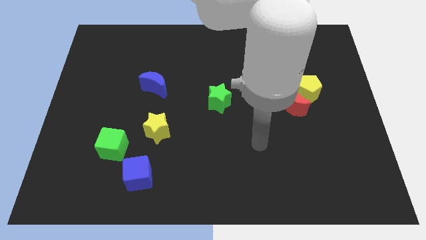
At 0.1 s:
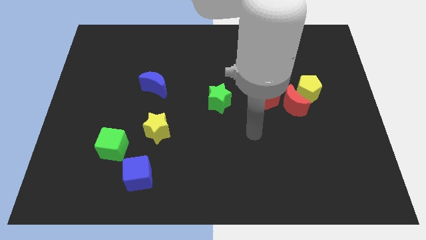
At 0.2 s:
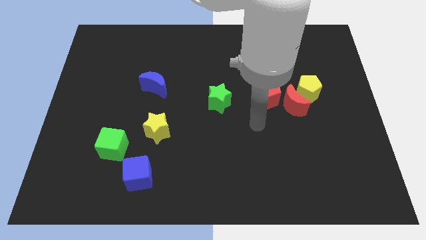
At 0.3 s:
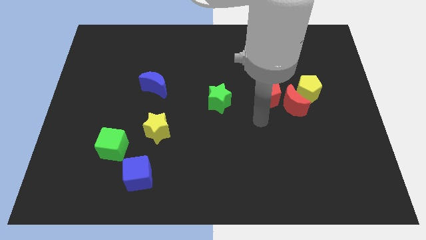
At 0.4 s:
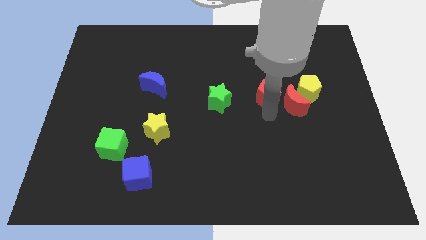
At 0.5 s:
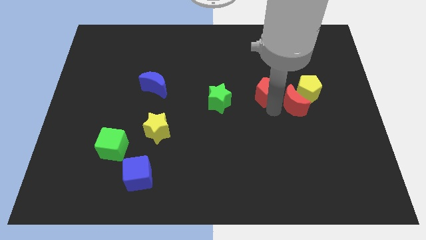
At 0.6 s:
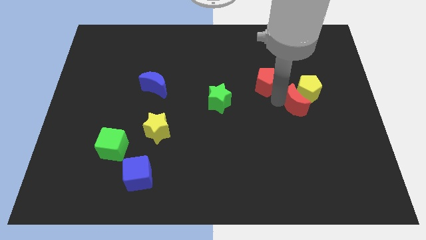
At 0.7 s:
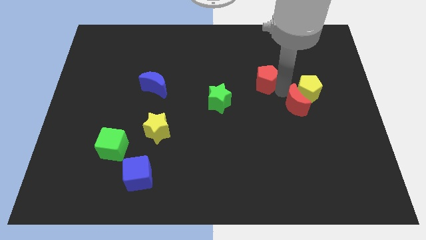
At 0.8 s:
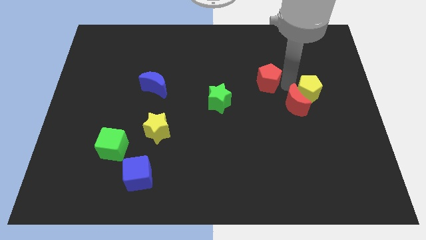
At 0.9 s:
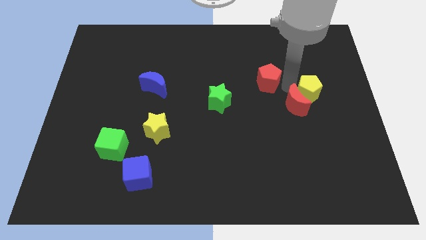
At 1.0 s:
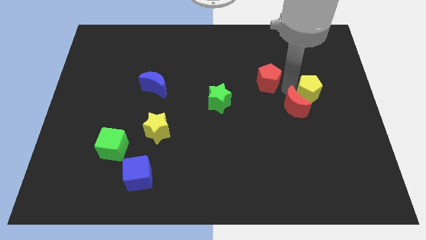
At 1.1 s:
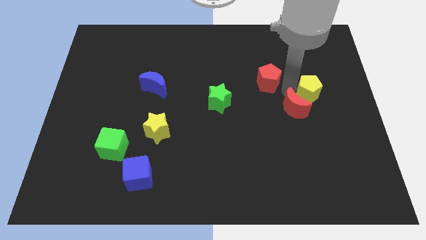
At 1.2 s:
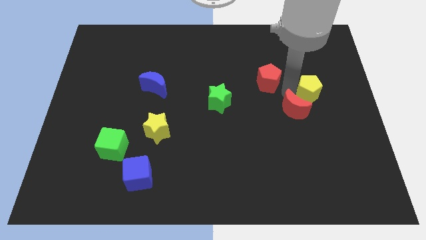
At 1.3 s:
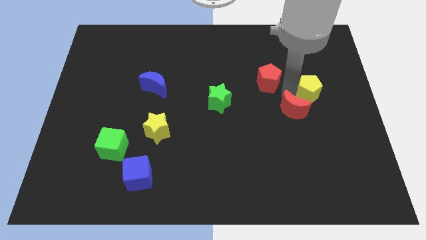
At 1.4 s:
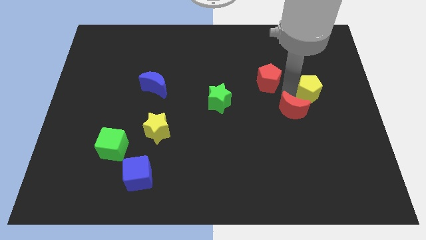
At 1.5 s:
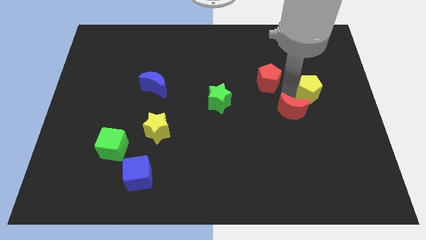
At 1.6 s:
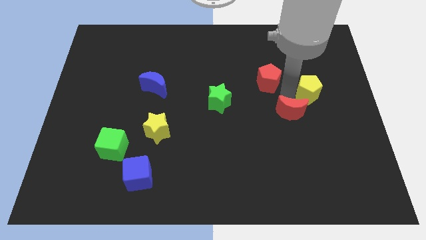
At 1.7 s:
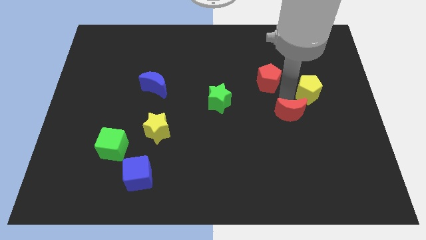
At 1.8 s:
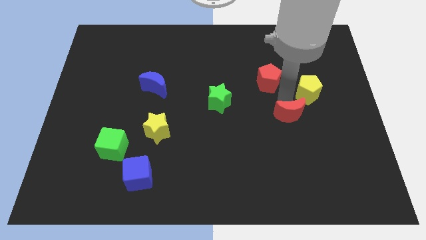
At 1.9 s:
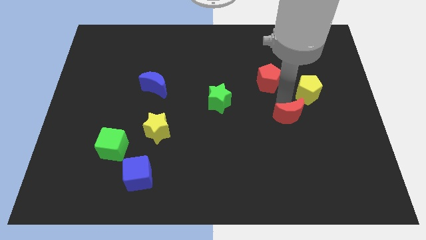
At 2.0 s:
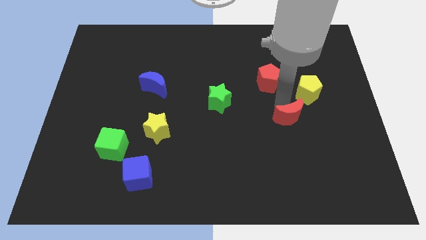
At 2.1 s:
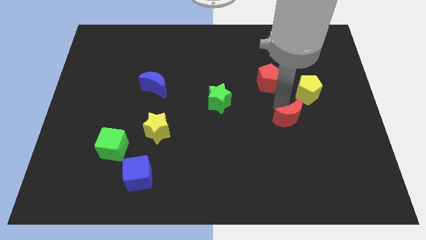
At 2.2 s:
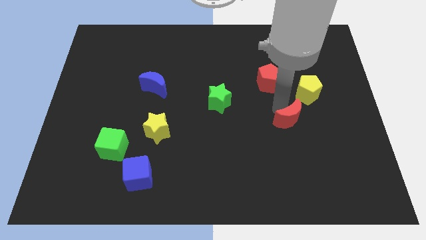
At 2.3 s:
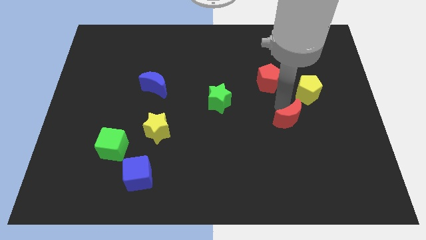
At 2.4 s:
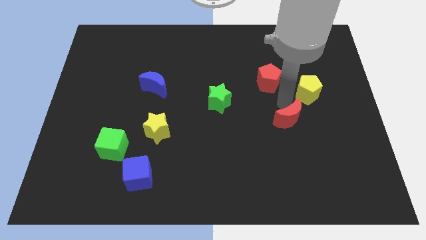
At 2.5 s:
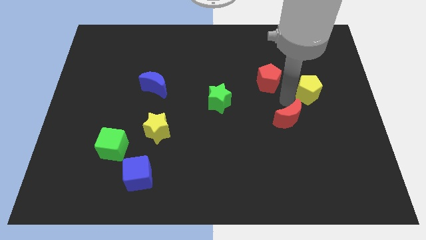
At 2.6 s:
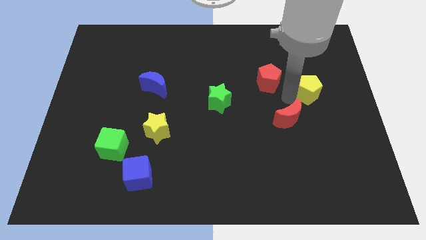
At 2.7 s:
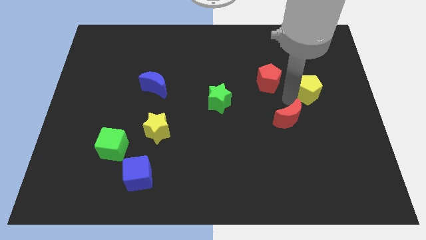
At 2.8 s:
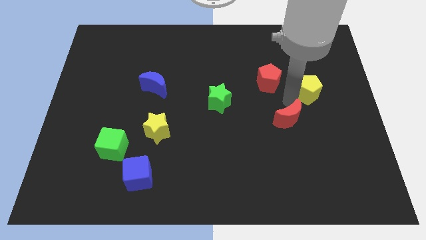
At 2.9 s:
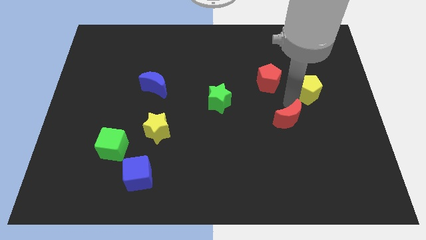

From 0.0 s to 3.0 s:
separate the red moon from the yellow pentagon and red pentagon

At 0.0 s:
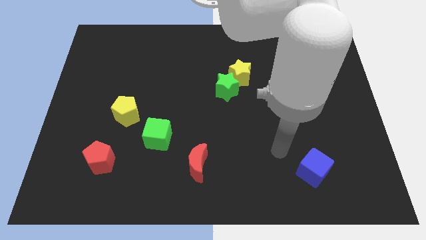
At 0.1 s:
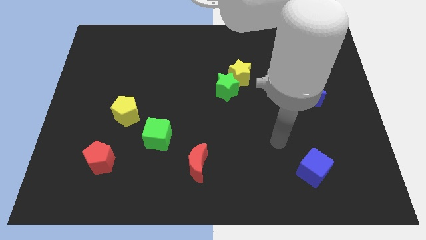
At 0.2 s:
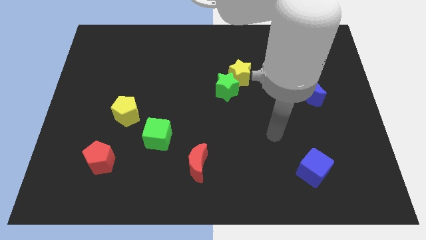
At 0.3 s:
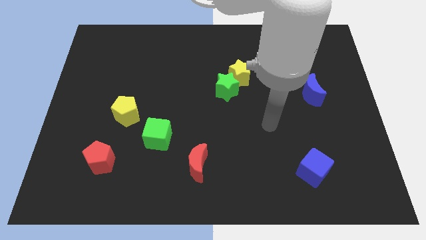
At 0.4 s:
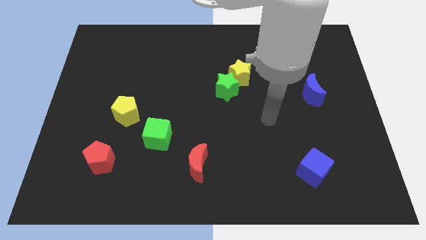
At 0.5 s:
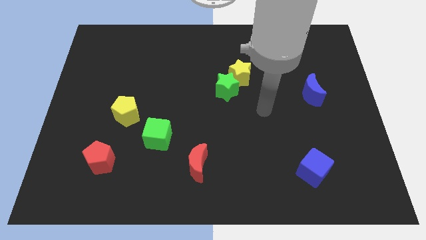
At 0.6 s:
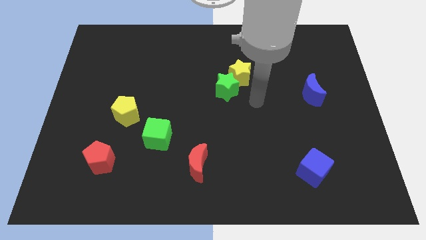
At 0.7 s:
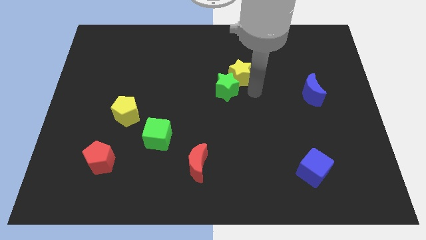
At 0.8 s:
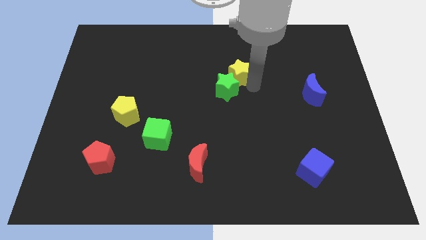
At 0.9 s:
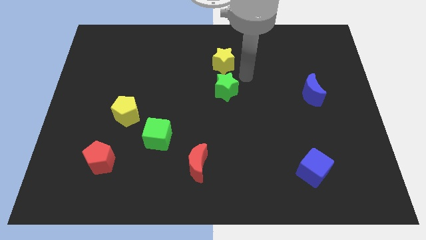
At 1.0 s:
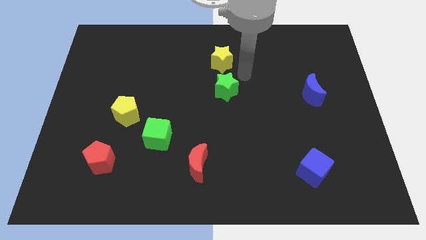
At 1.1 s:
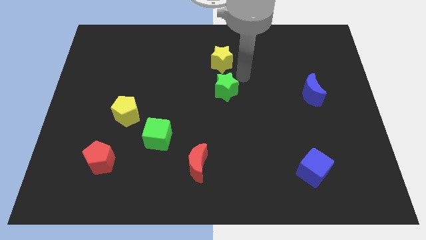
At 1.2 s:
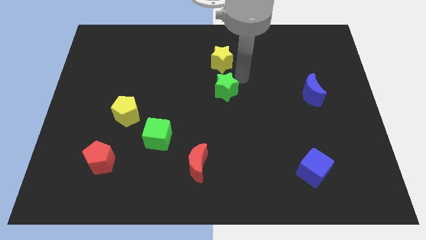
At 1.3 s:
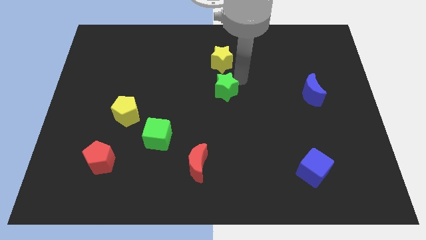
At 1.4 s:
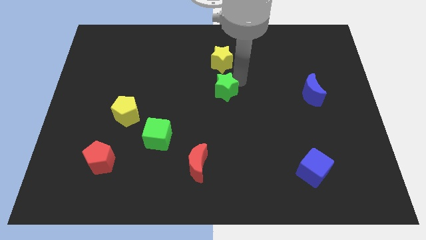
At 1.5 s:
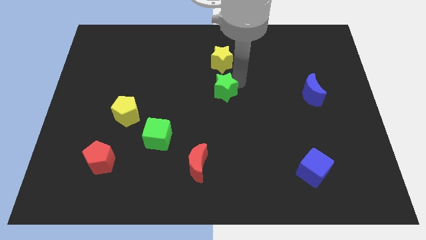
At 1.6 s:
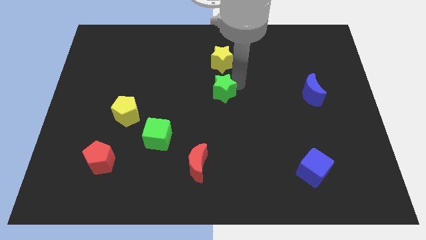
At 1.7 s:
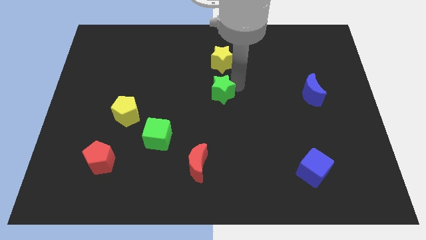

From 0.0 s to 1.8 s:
pull the green star apart from the yellow star

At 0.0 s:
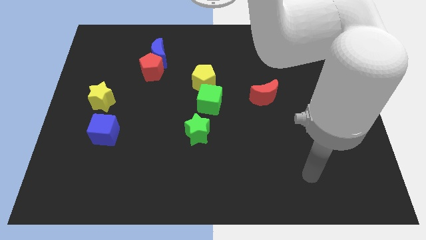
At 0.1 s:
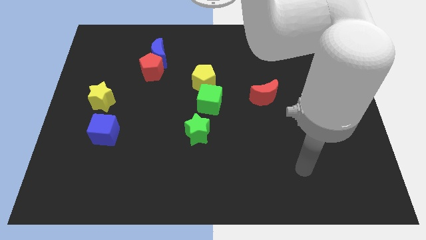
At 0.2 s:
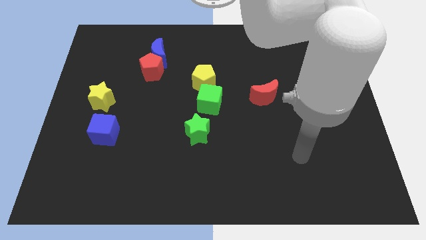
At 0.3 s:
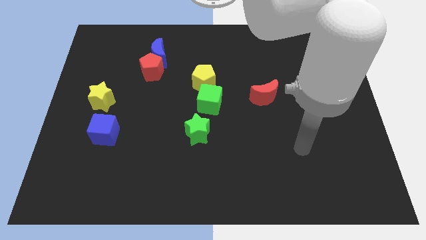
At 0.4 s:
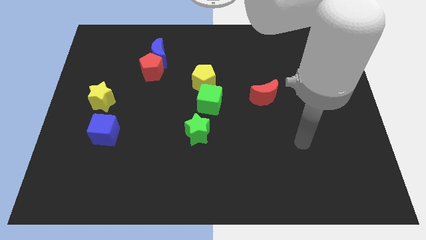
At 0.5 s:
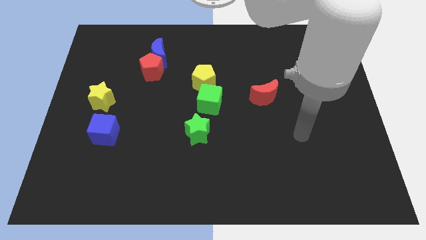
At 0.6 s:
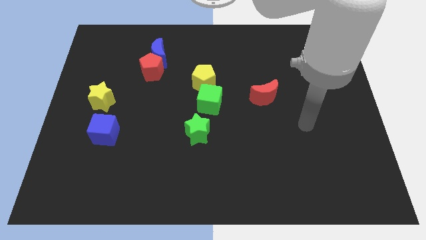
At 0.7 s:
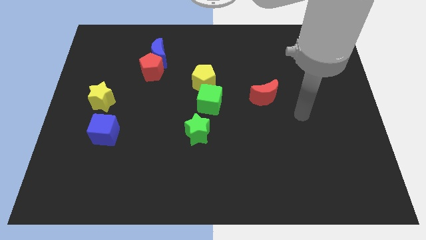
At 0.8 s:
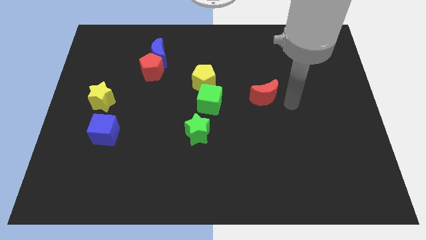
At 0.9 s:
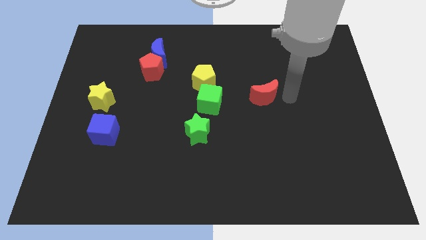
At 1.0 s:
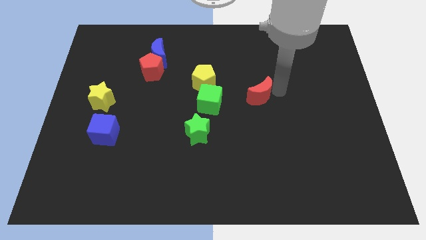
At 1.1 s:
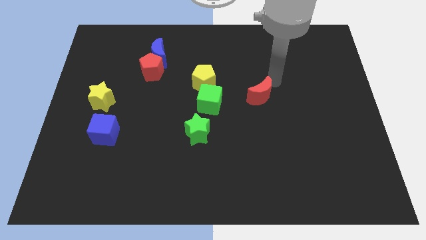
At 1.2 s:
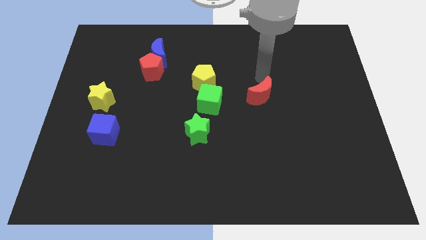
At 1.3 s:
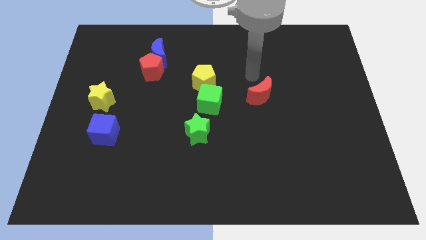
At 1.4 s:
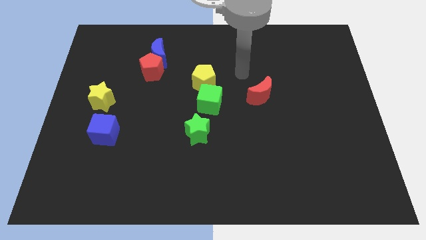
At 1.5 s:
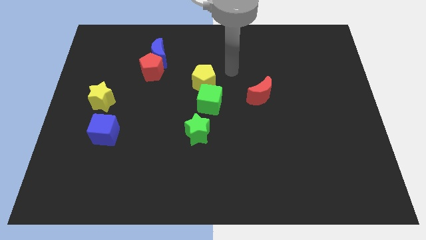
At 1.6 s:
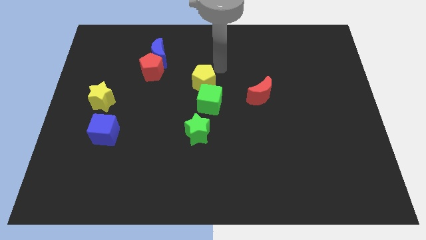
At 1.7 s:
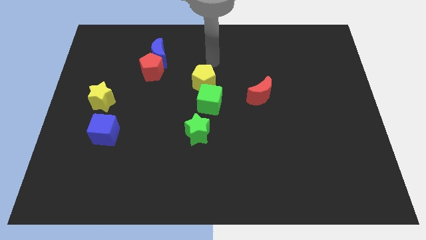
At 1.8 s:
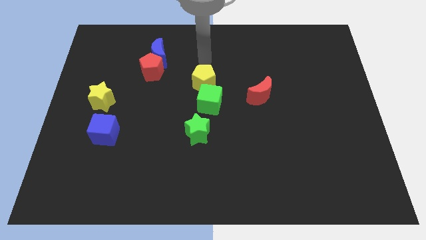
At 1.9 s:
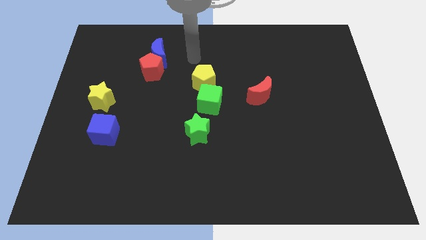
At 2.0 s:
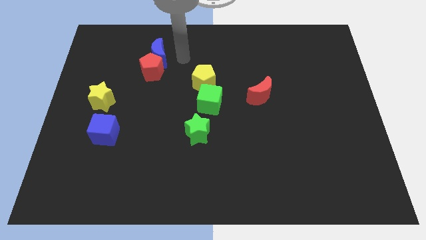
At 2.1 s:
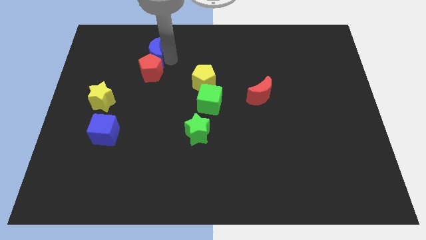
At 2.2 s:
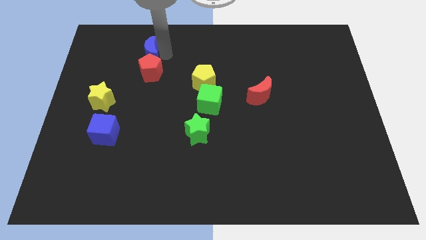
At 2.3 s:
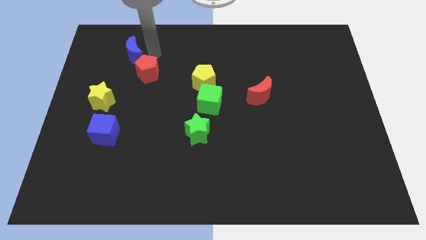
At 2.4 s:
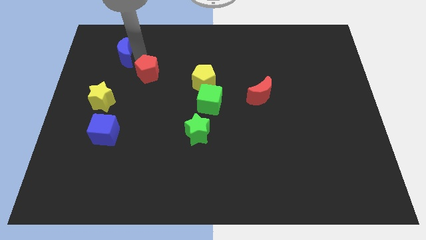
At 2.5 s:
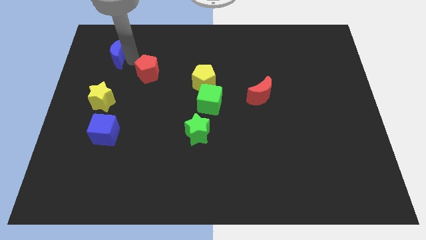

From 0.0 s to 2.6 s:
move the red pentagon away from the blue moon

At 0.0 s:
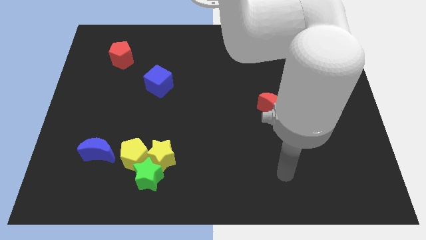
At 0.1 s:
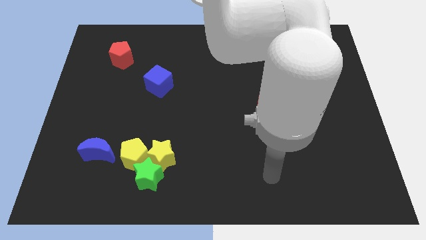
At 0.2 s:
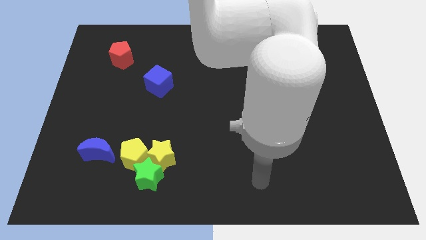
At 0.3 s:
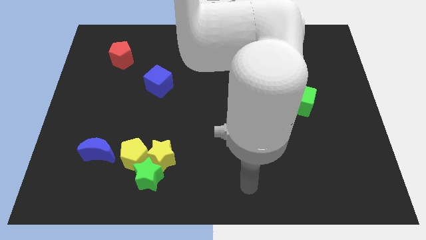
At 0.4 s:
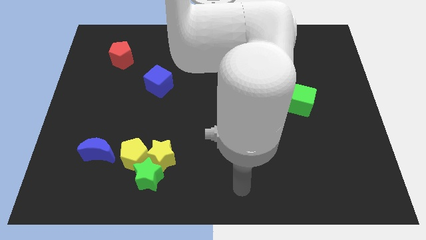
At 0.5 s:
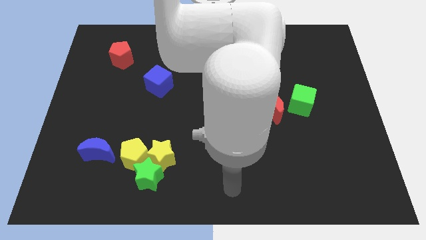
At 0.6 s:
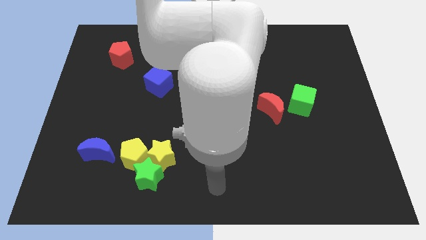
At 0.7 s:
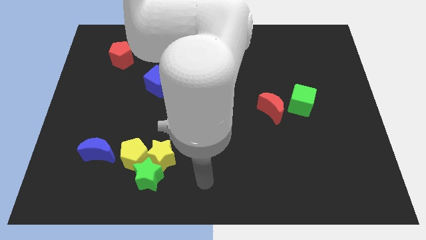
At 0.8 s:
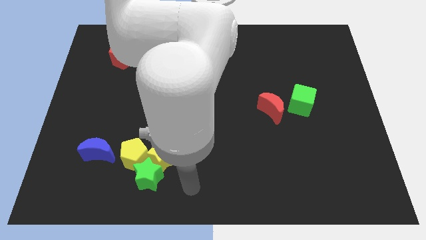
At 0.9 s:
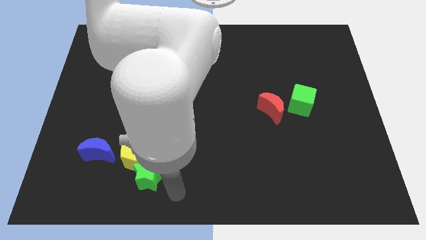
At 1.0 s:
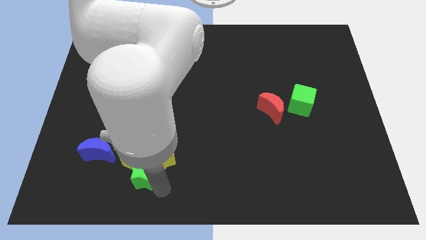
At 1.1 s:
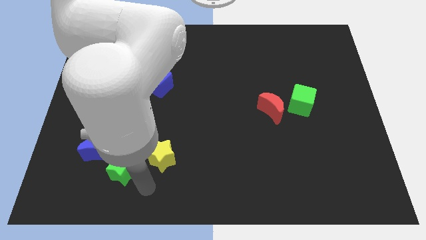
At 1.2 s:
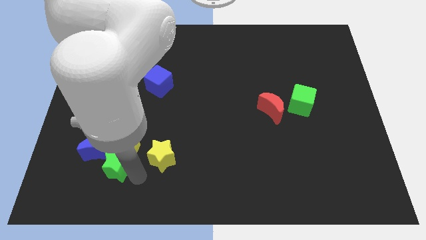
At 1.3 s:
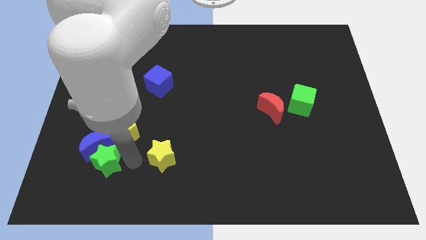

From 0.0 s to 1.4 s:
pull the yellow star apart from the green star and yellow pentagon

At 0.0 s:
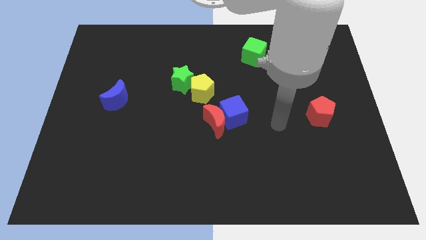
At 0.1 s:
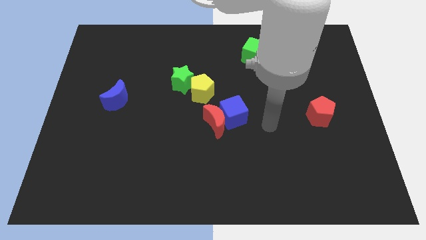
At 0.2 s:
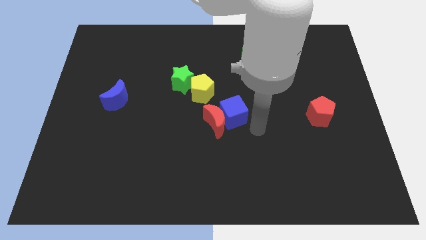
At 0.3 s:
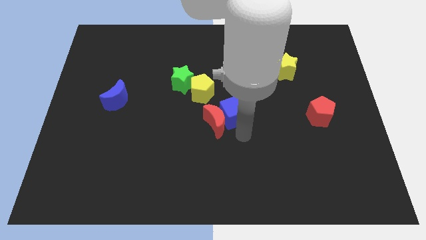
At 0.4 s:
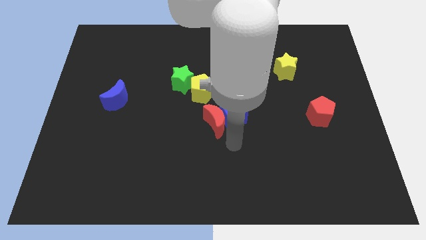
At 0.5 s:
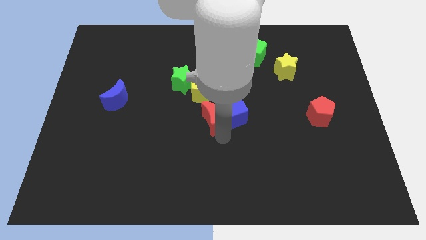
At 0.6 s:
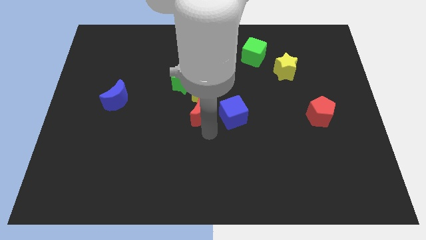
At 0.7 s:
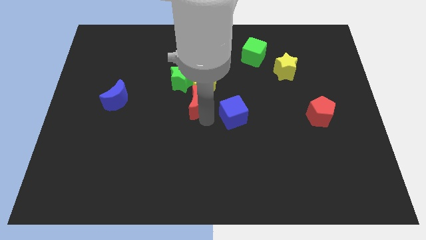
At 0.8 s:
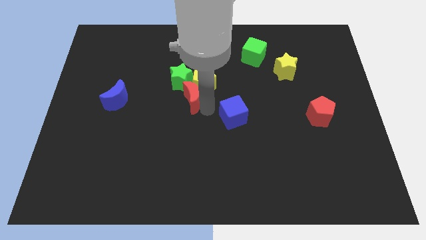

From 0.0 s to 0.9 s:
separate the blue cube from the red moon
